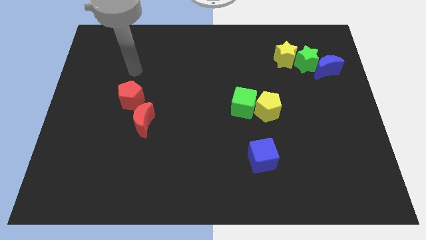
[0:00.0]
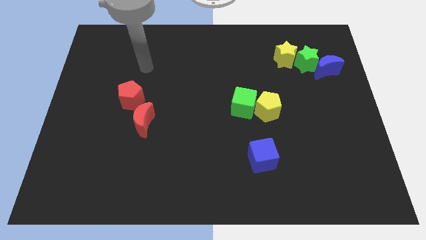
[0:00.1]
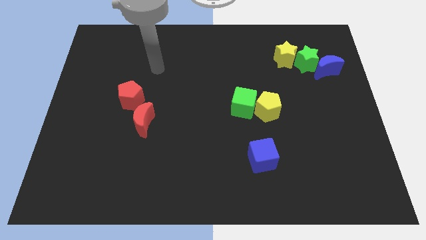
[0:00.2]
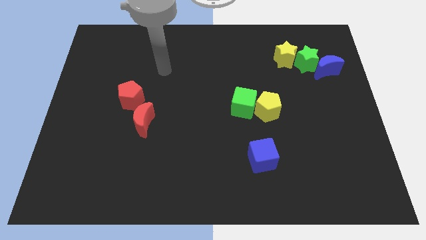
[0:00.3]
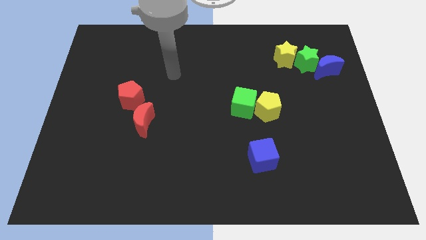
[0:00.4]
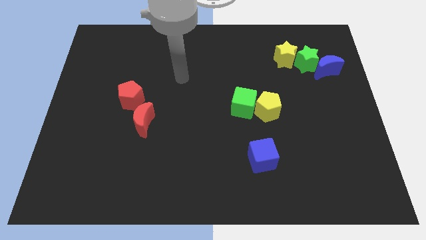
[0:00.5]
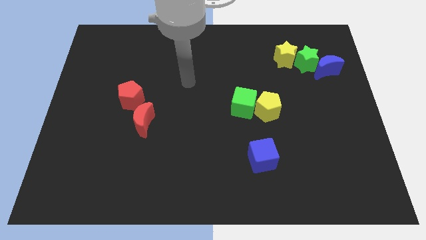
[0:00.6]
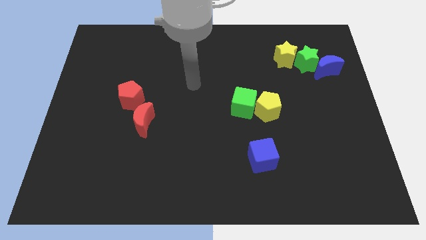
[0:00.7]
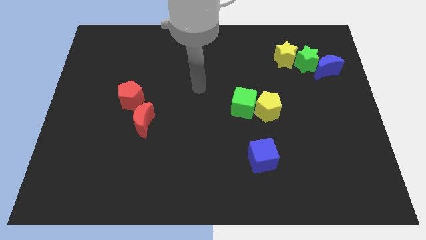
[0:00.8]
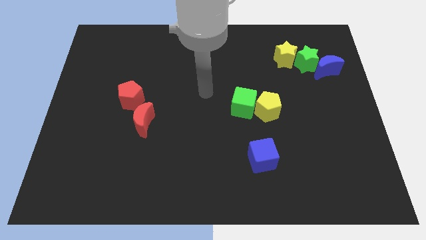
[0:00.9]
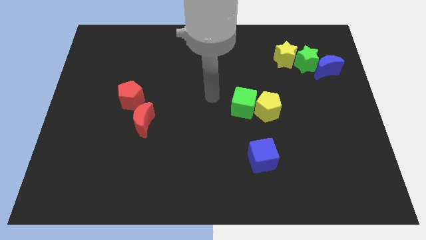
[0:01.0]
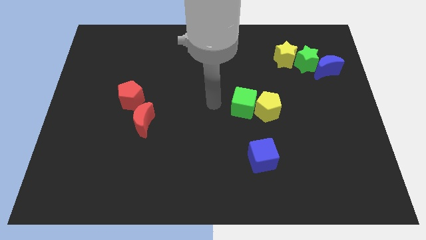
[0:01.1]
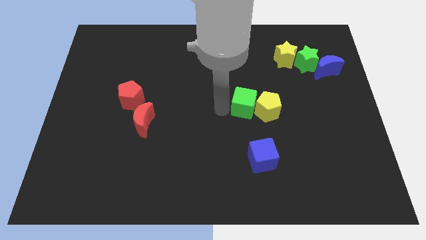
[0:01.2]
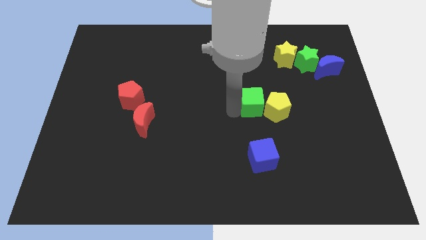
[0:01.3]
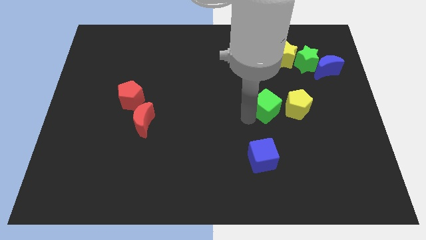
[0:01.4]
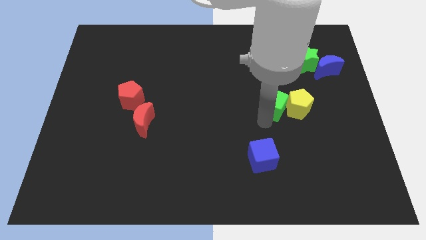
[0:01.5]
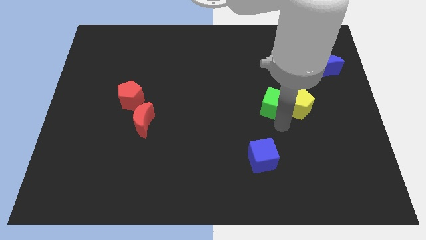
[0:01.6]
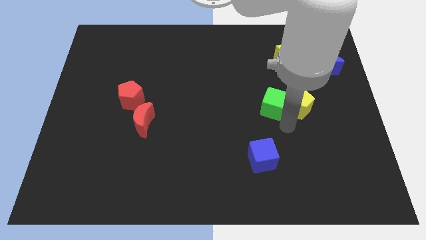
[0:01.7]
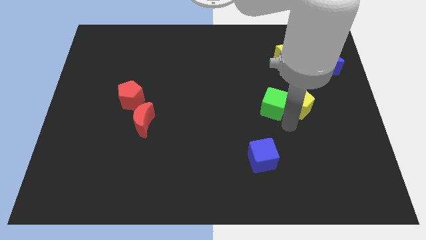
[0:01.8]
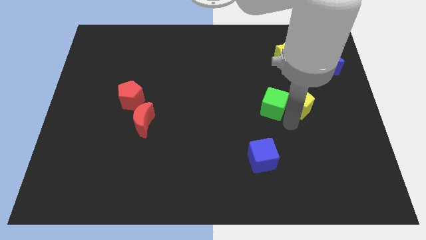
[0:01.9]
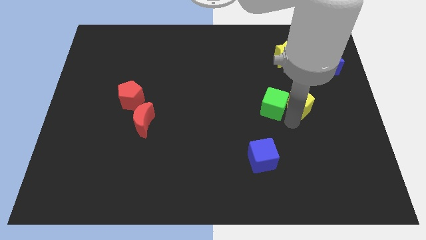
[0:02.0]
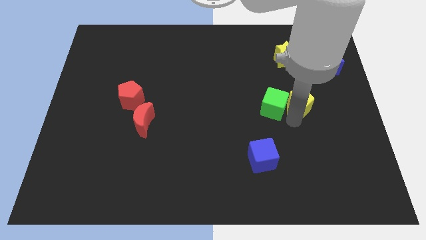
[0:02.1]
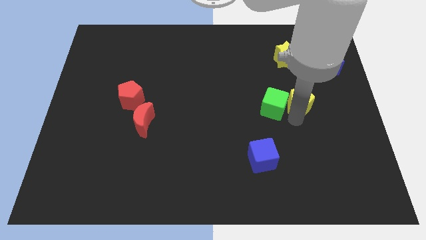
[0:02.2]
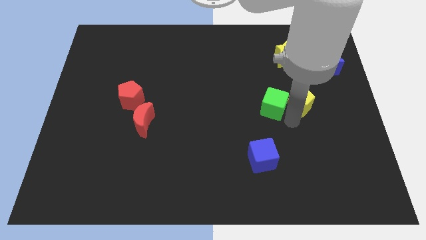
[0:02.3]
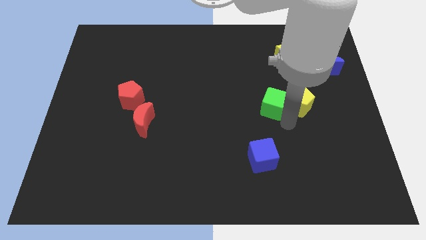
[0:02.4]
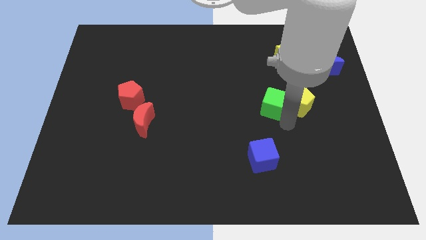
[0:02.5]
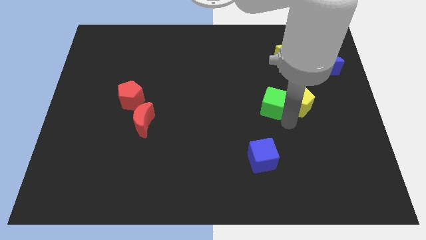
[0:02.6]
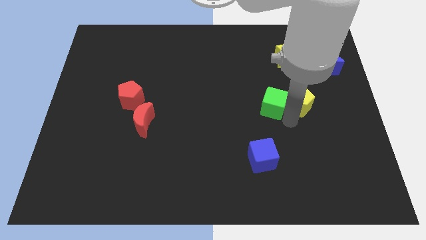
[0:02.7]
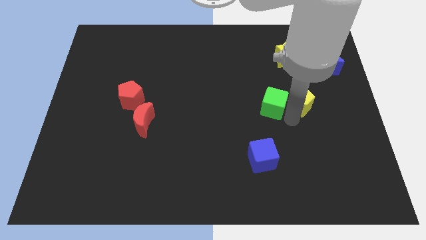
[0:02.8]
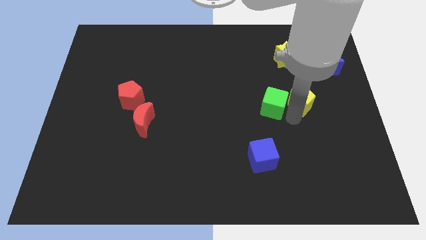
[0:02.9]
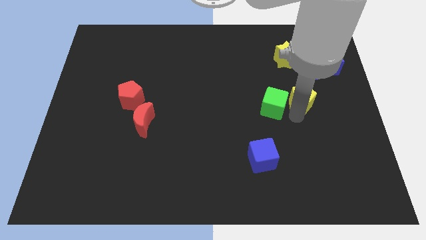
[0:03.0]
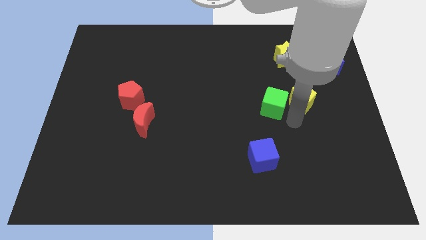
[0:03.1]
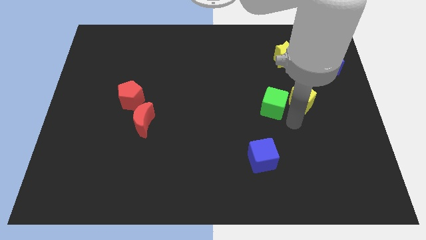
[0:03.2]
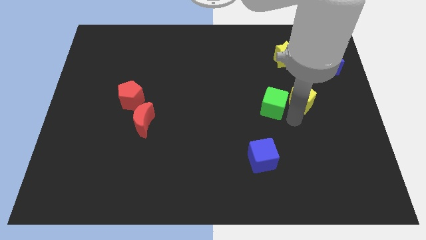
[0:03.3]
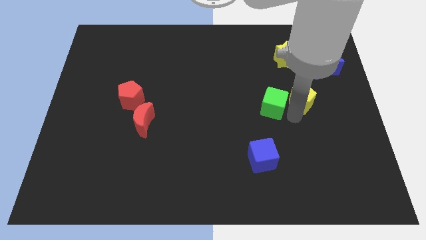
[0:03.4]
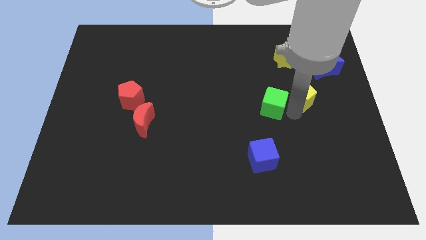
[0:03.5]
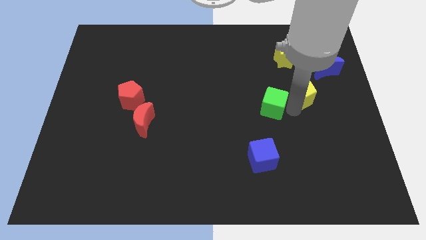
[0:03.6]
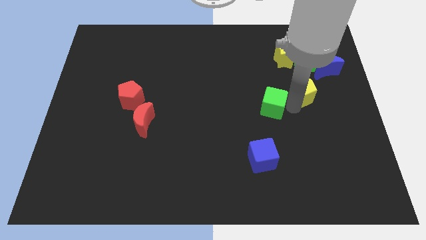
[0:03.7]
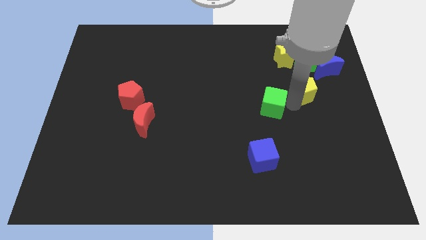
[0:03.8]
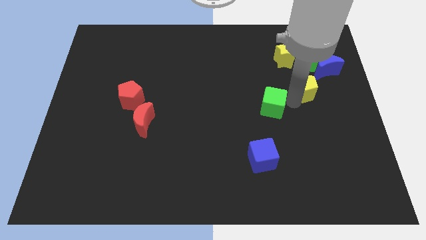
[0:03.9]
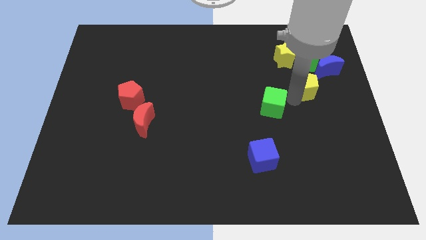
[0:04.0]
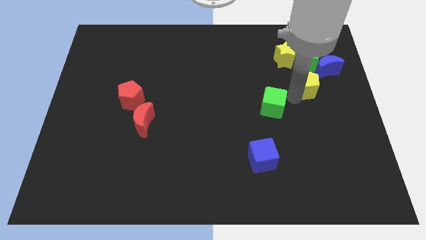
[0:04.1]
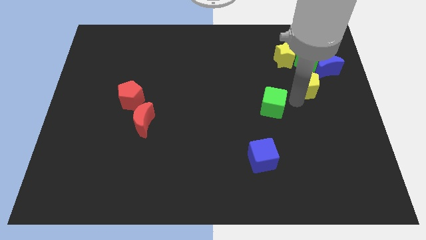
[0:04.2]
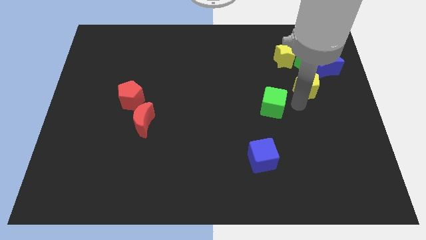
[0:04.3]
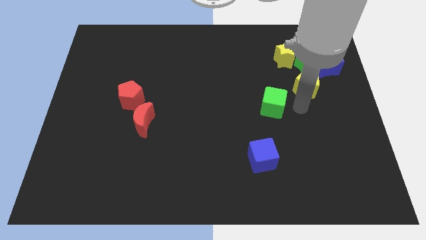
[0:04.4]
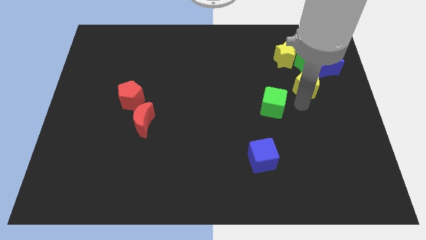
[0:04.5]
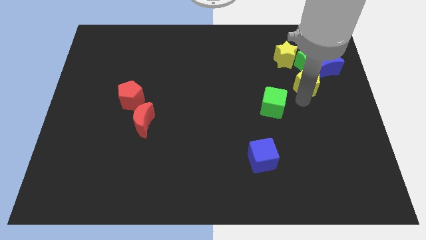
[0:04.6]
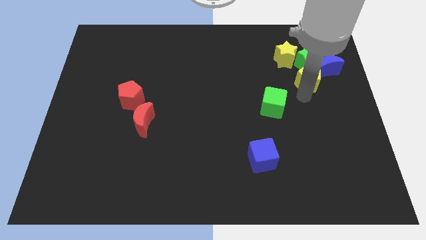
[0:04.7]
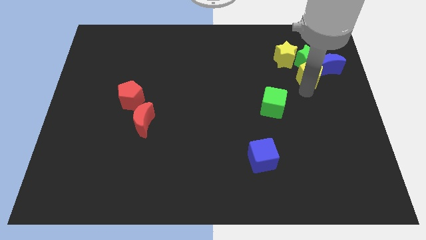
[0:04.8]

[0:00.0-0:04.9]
push the yellow pentagon towards the green star

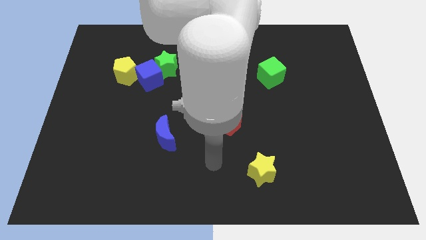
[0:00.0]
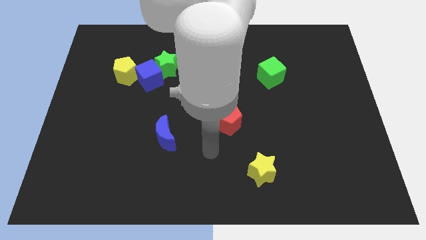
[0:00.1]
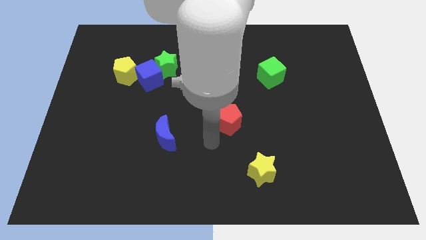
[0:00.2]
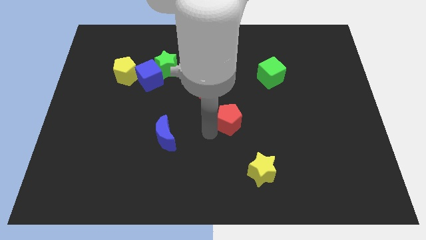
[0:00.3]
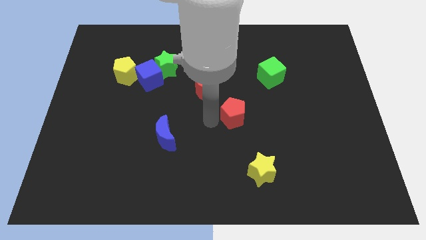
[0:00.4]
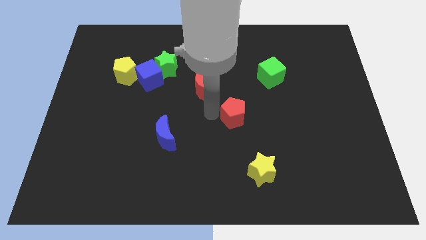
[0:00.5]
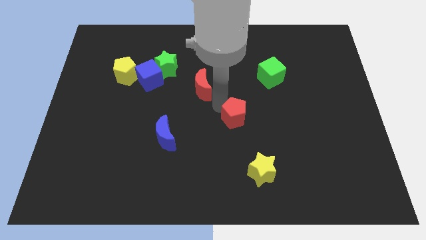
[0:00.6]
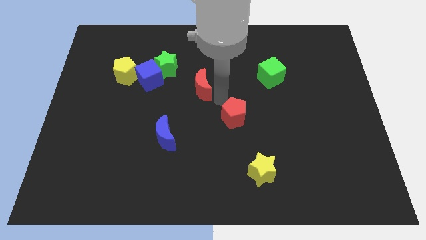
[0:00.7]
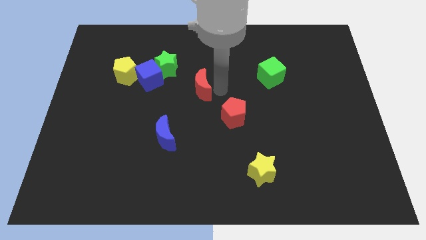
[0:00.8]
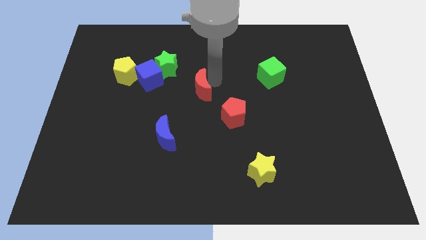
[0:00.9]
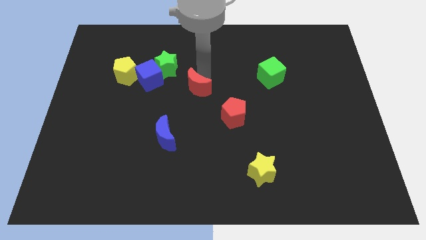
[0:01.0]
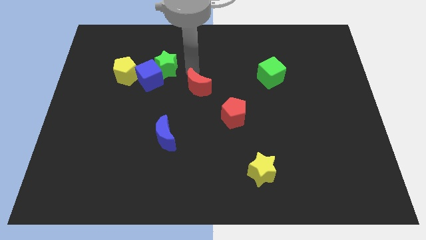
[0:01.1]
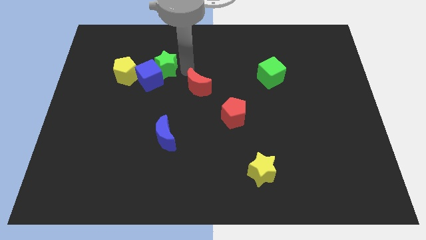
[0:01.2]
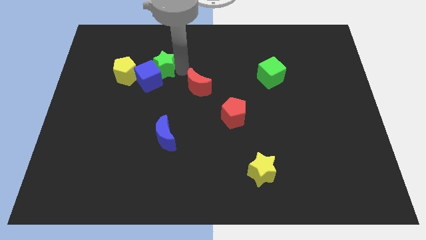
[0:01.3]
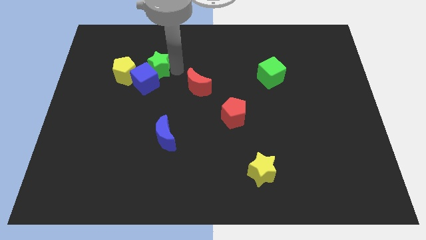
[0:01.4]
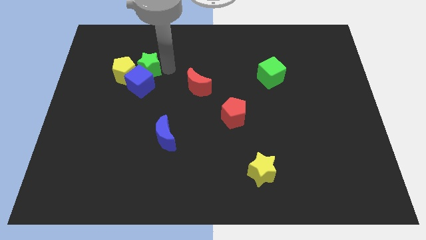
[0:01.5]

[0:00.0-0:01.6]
move the green star to the yellow pentagon
